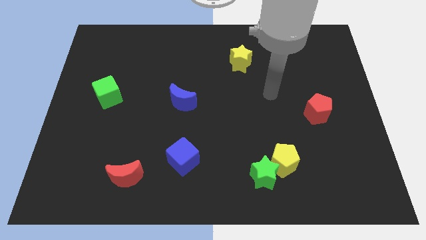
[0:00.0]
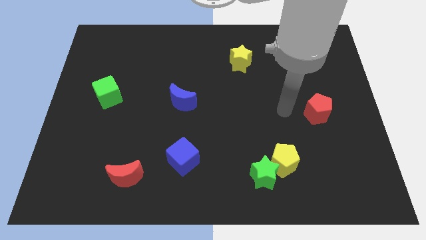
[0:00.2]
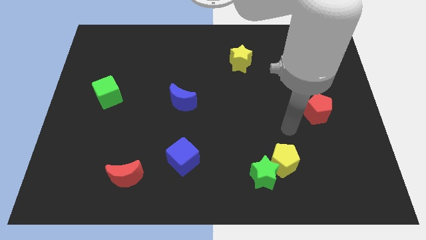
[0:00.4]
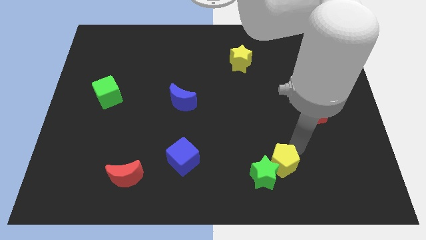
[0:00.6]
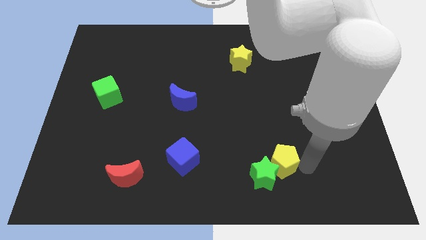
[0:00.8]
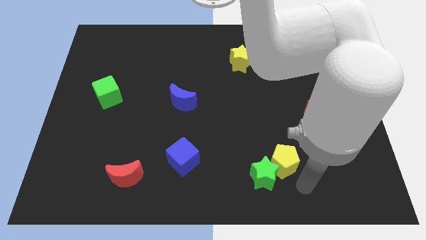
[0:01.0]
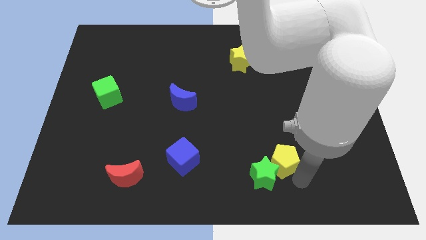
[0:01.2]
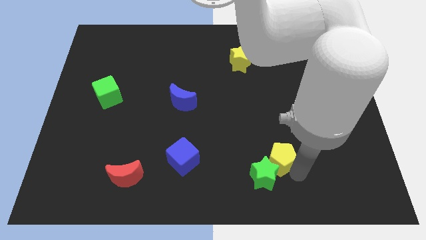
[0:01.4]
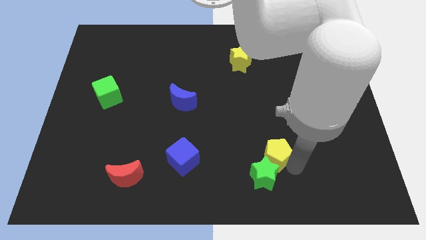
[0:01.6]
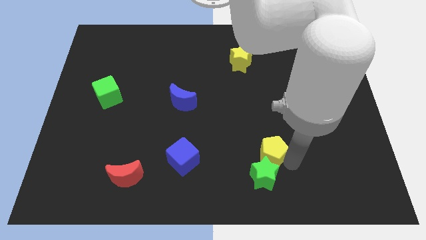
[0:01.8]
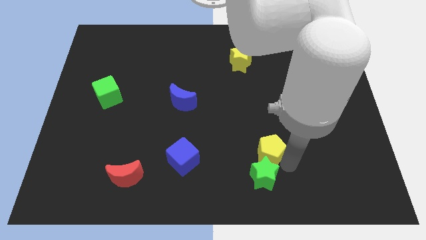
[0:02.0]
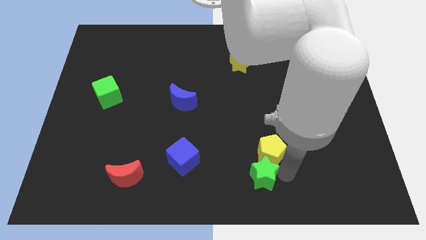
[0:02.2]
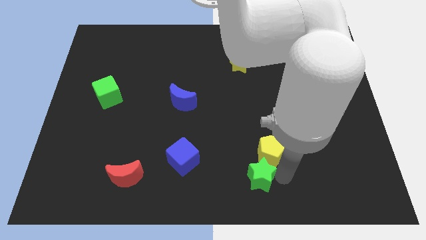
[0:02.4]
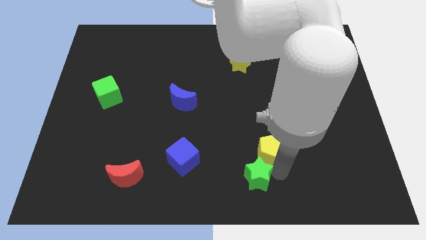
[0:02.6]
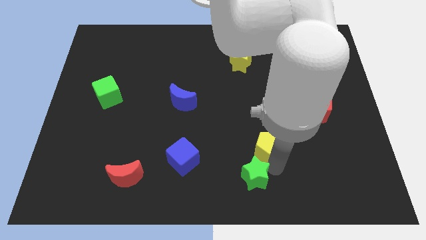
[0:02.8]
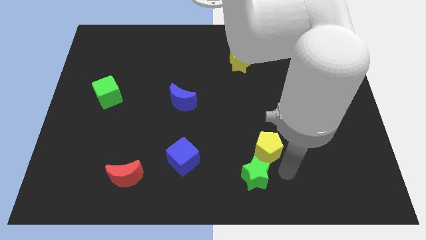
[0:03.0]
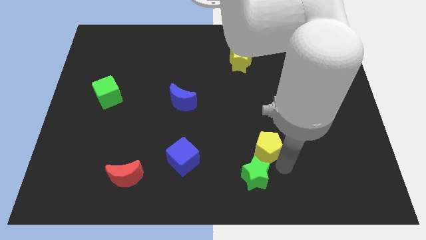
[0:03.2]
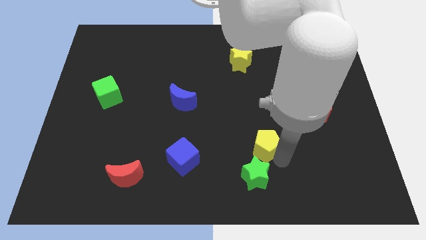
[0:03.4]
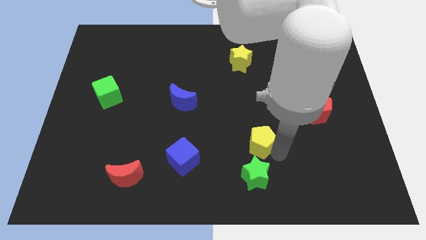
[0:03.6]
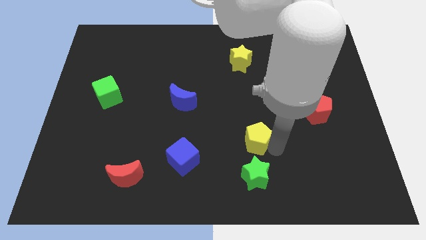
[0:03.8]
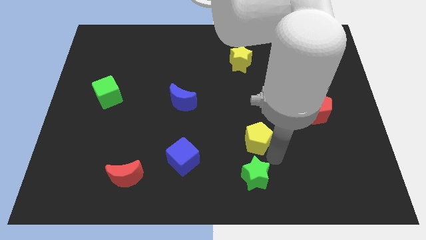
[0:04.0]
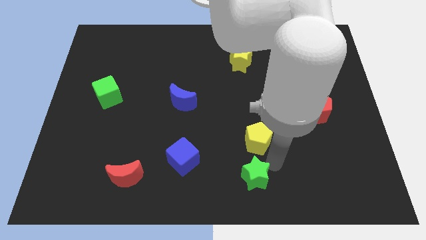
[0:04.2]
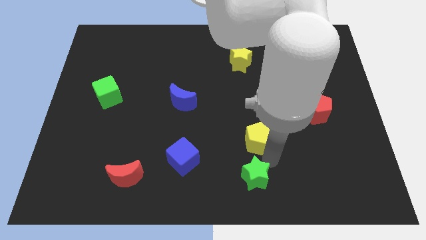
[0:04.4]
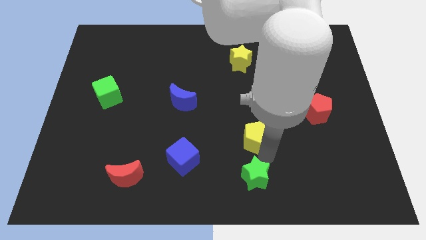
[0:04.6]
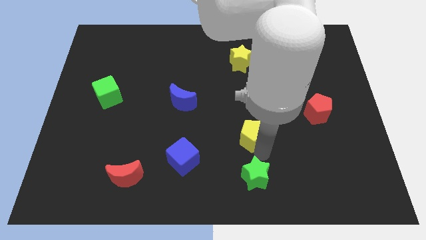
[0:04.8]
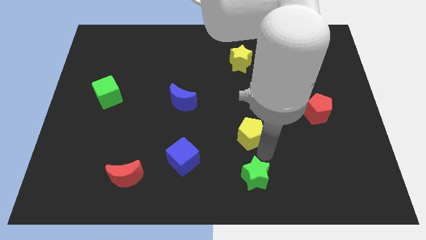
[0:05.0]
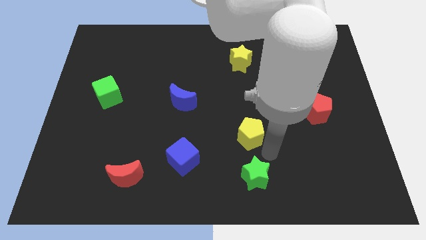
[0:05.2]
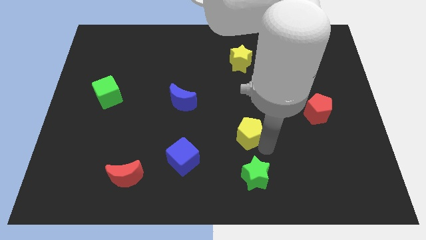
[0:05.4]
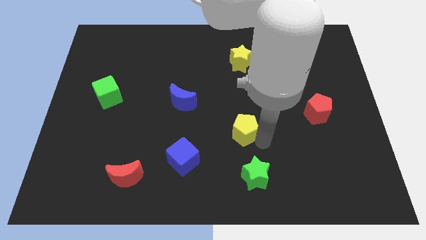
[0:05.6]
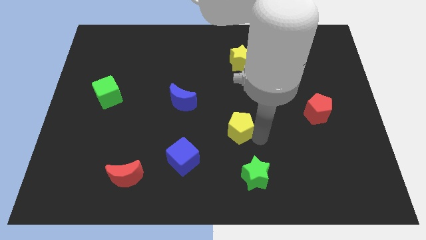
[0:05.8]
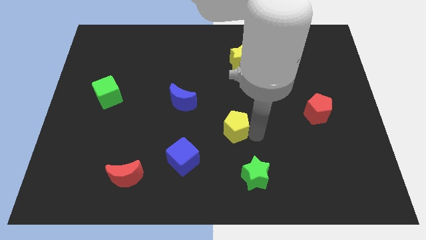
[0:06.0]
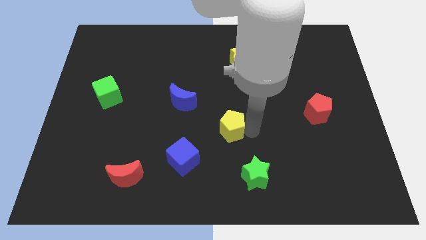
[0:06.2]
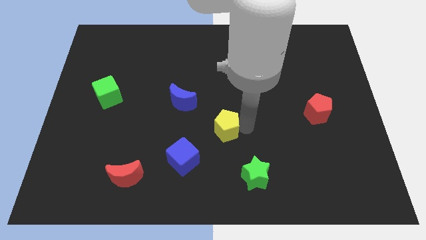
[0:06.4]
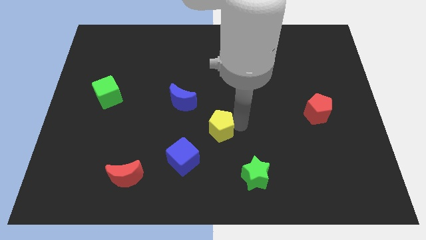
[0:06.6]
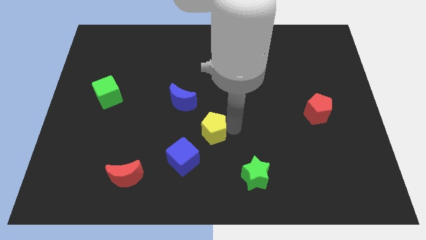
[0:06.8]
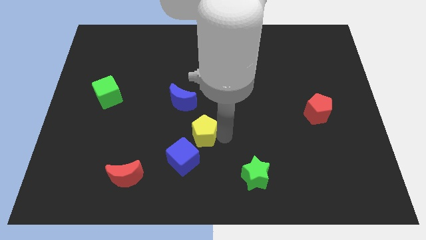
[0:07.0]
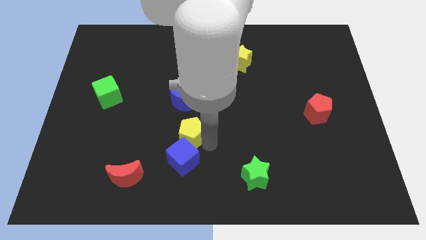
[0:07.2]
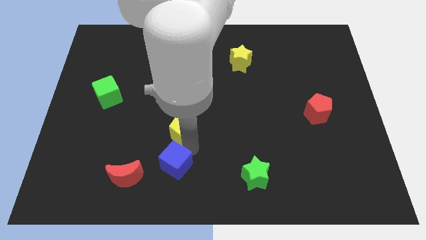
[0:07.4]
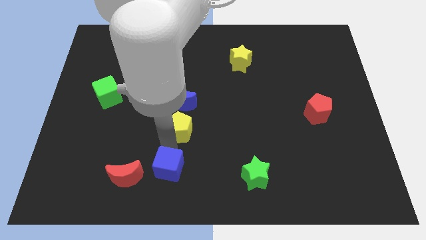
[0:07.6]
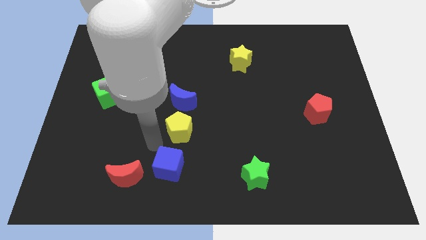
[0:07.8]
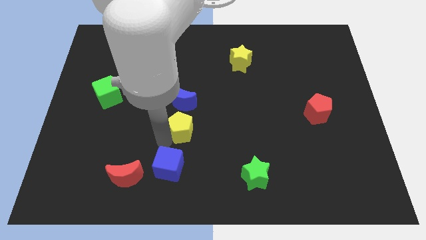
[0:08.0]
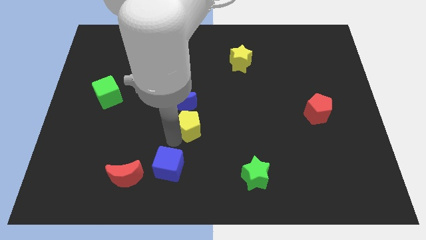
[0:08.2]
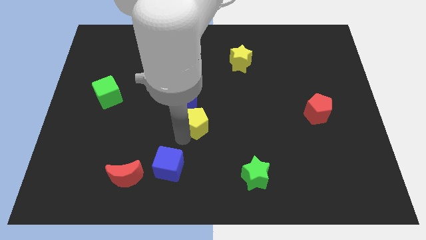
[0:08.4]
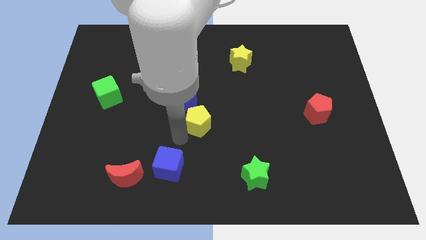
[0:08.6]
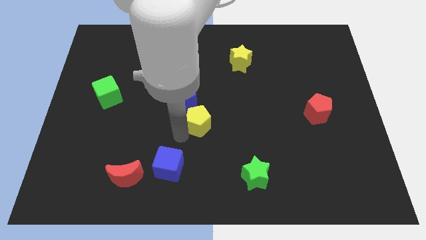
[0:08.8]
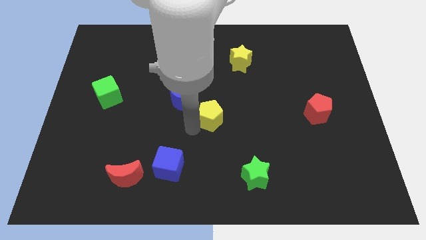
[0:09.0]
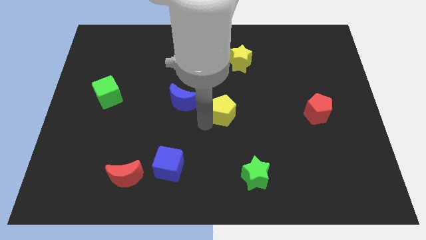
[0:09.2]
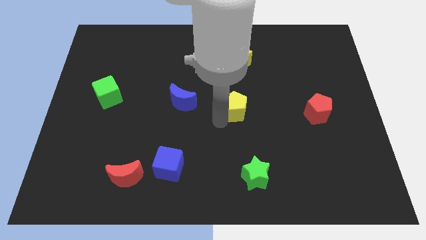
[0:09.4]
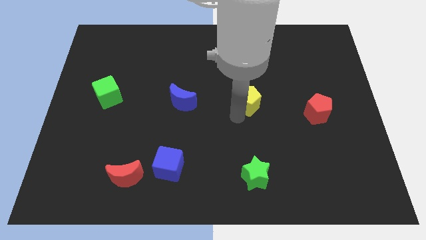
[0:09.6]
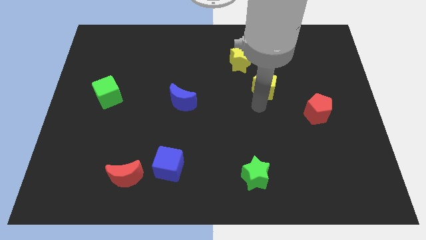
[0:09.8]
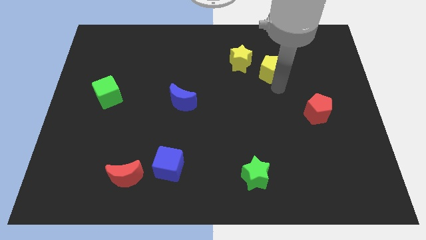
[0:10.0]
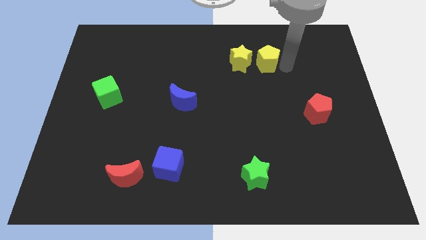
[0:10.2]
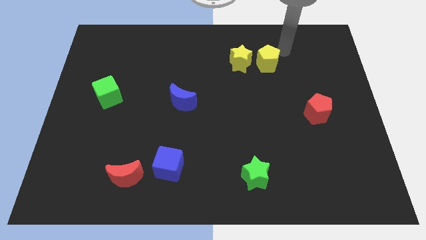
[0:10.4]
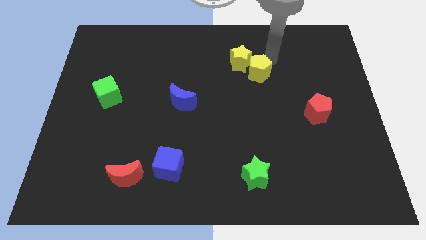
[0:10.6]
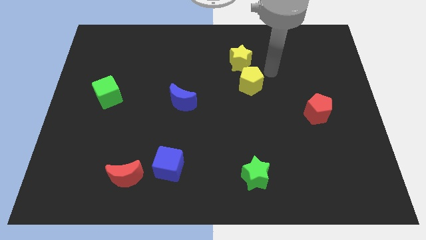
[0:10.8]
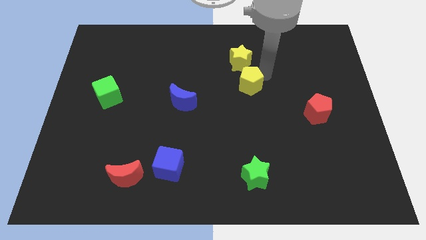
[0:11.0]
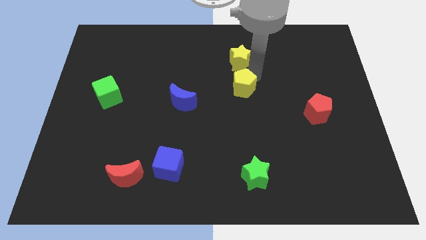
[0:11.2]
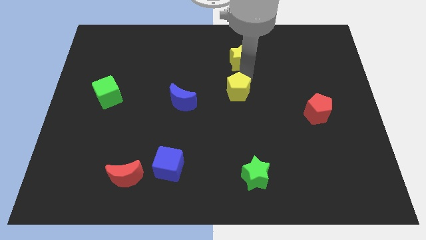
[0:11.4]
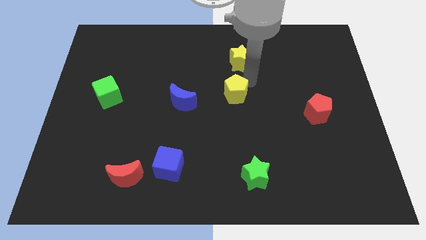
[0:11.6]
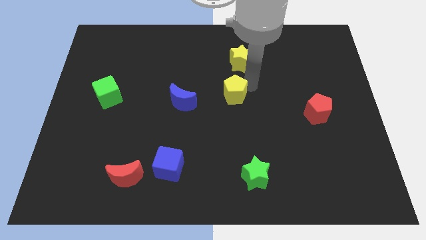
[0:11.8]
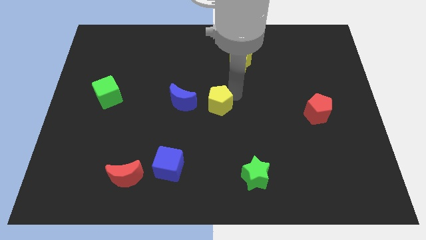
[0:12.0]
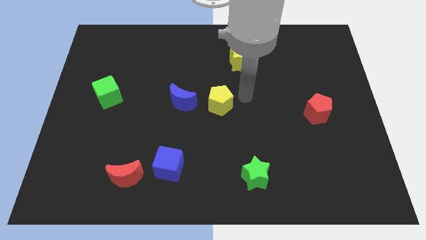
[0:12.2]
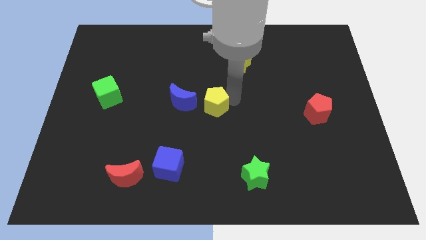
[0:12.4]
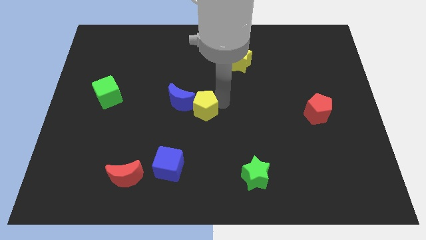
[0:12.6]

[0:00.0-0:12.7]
put the yellow pentagon to the blue moon
